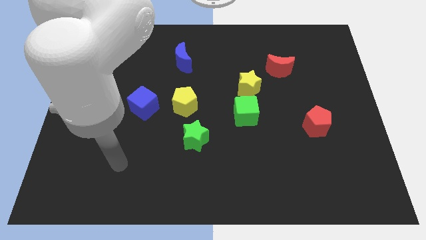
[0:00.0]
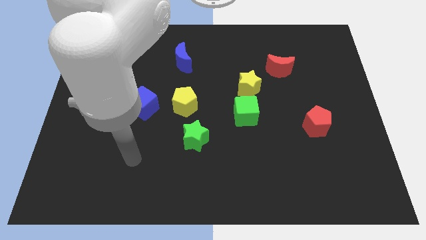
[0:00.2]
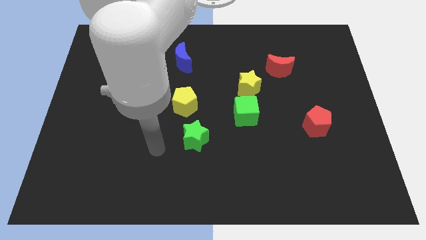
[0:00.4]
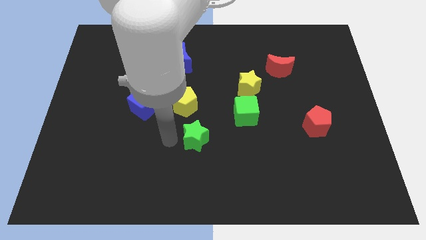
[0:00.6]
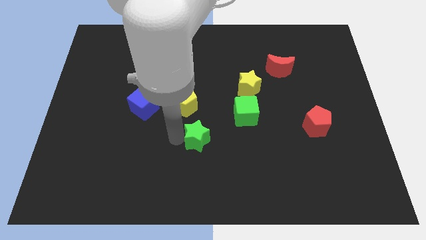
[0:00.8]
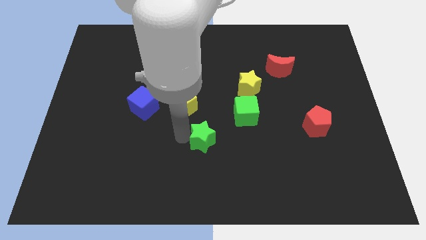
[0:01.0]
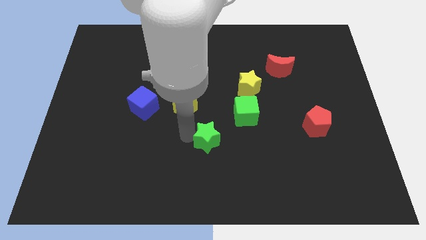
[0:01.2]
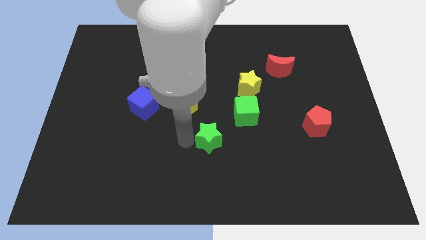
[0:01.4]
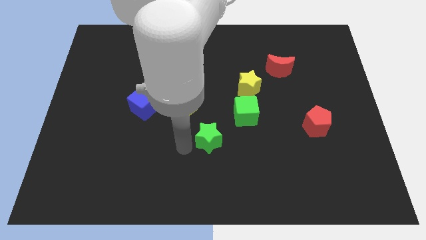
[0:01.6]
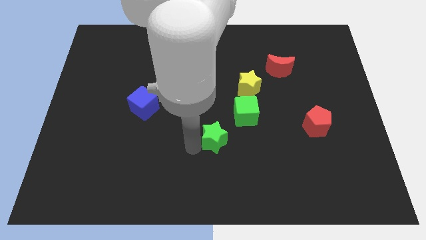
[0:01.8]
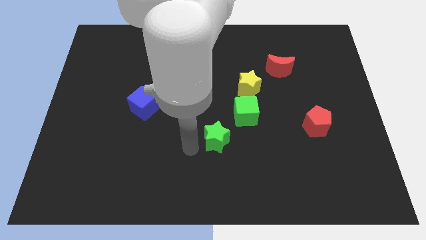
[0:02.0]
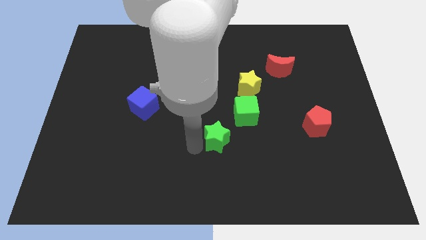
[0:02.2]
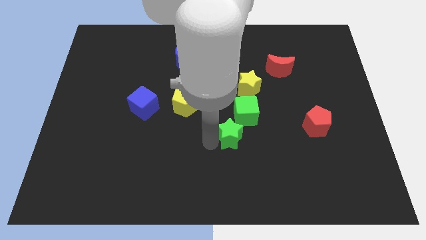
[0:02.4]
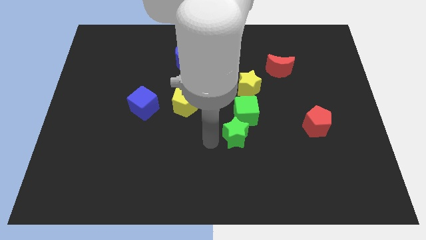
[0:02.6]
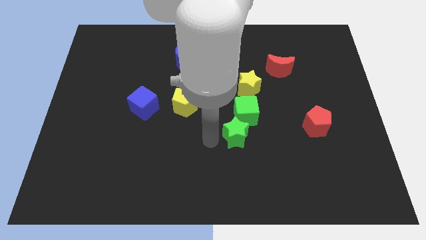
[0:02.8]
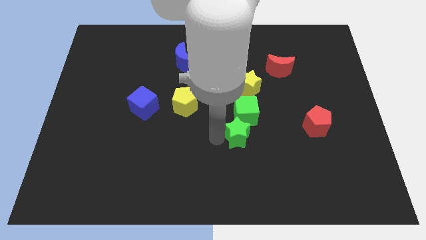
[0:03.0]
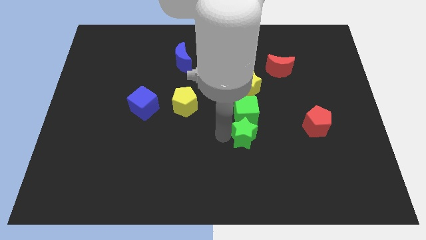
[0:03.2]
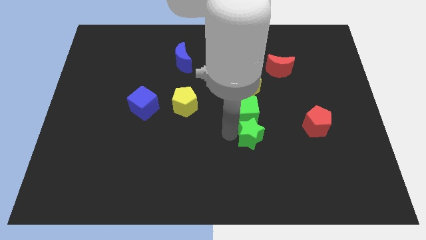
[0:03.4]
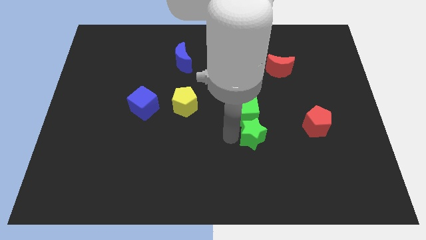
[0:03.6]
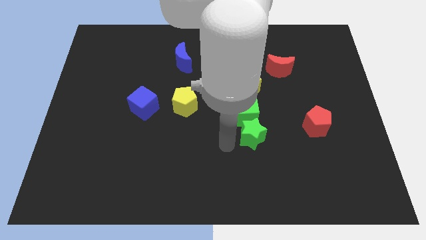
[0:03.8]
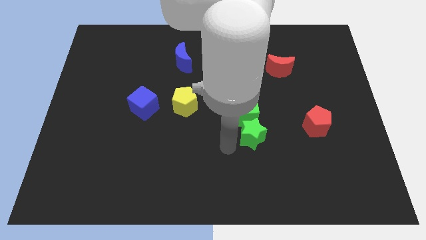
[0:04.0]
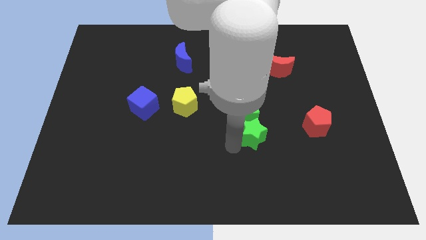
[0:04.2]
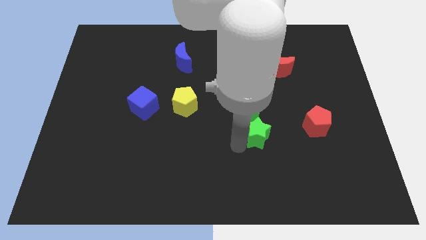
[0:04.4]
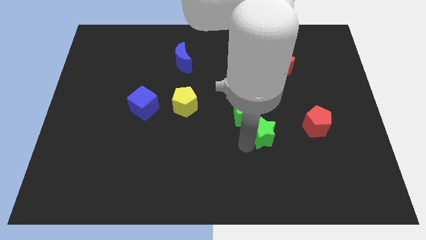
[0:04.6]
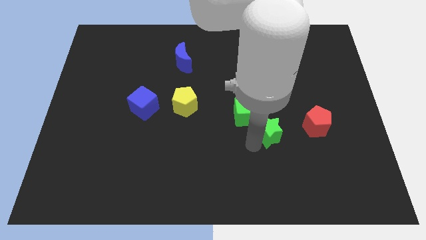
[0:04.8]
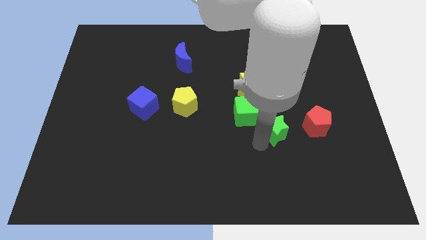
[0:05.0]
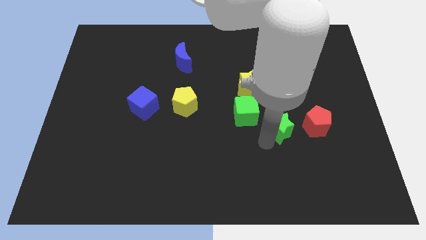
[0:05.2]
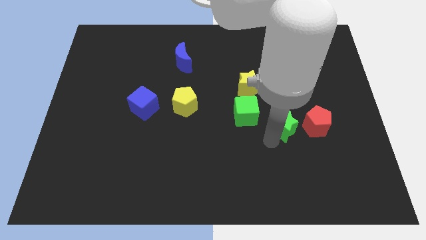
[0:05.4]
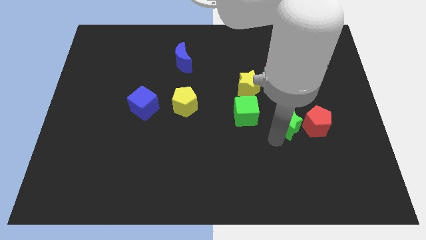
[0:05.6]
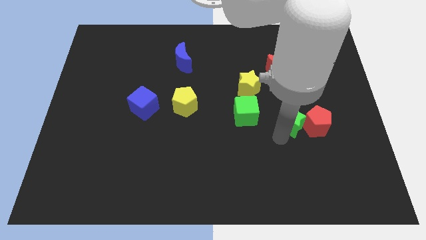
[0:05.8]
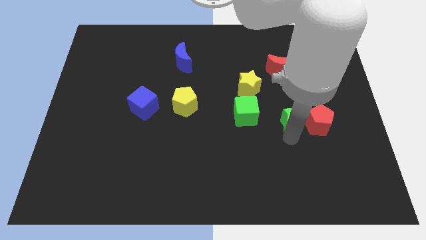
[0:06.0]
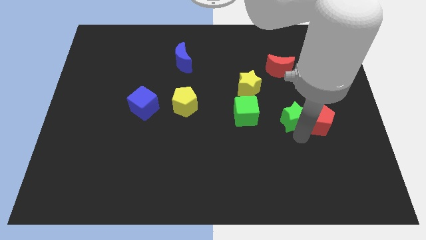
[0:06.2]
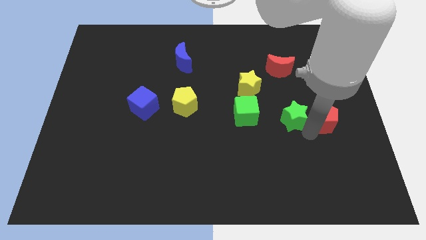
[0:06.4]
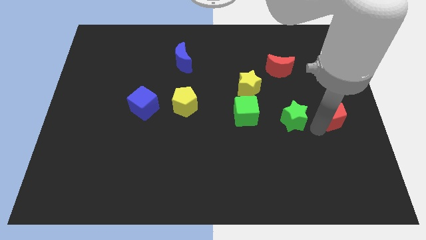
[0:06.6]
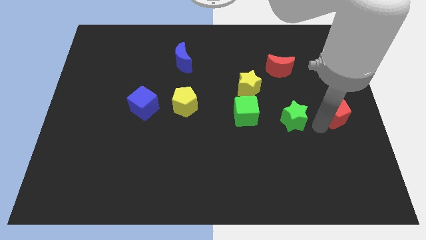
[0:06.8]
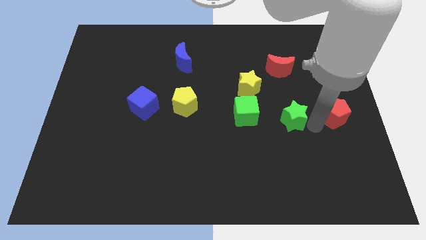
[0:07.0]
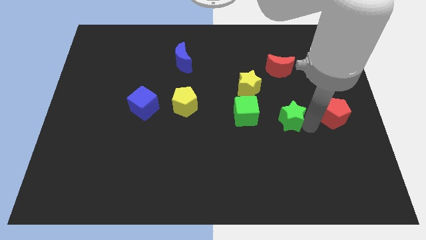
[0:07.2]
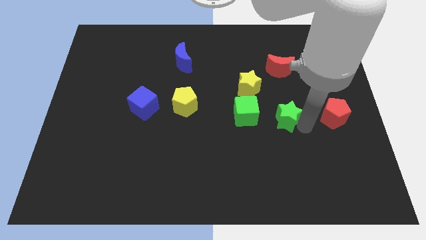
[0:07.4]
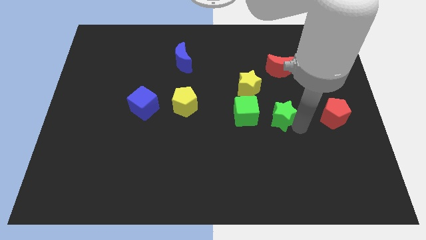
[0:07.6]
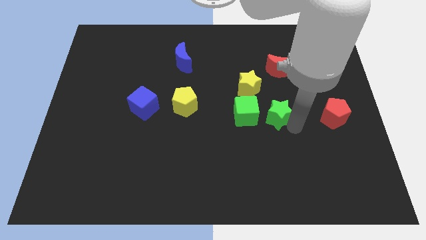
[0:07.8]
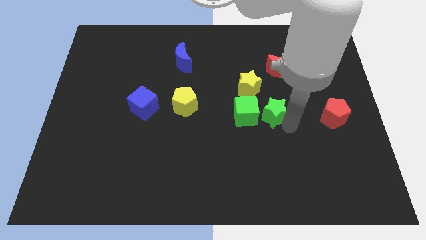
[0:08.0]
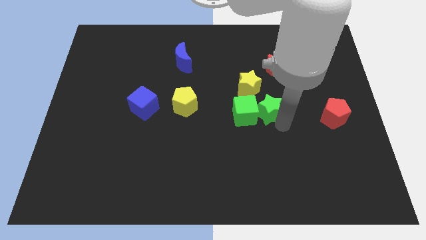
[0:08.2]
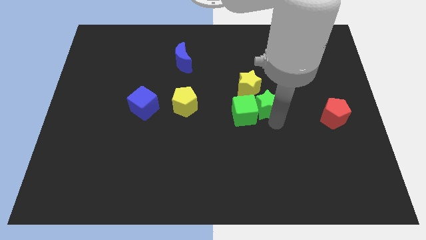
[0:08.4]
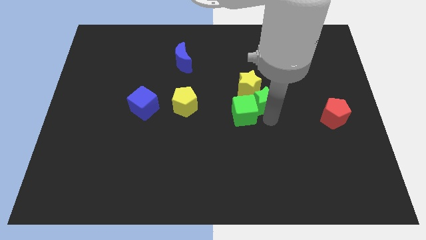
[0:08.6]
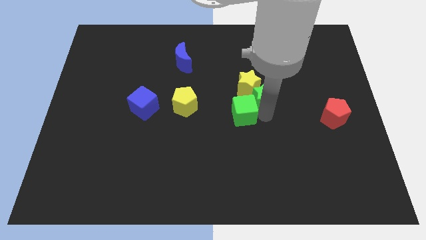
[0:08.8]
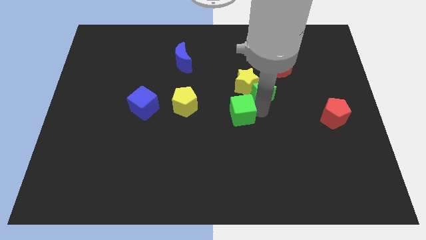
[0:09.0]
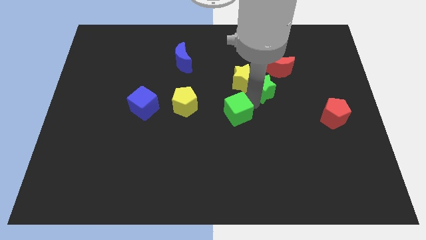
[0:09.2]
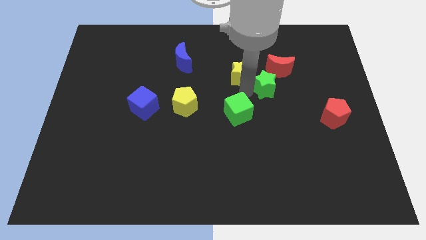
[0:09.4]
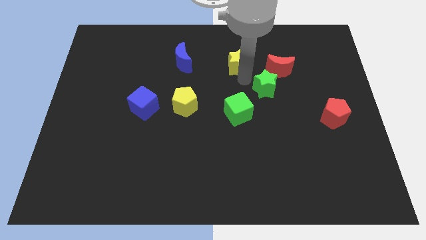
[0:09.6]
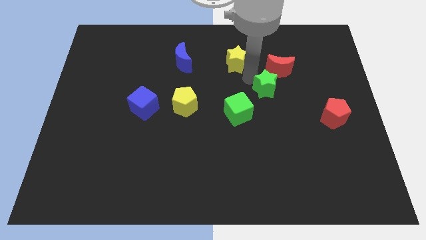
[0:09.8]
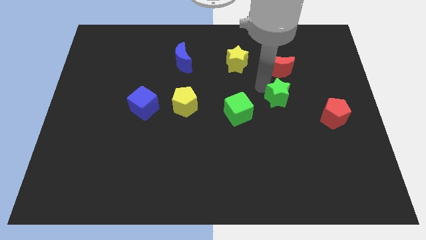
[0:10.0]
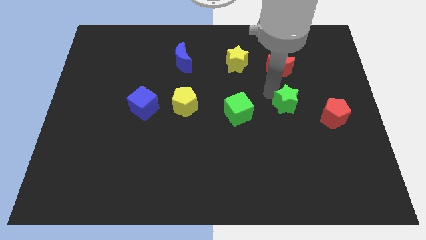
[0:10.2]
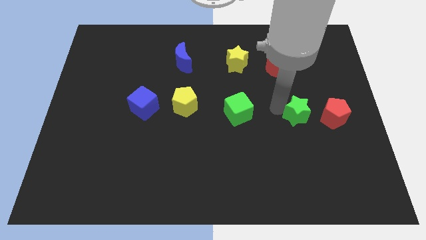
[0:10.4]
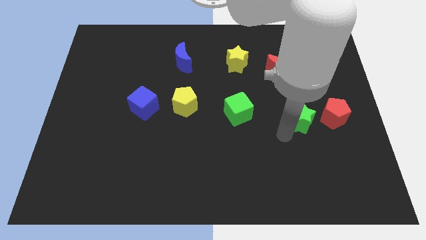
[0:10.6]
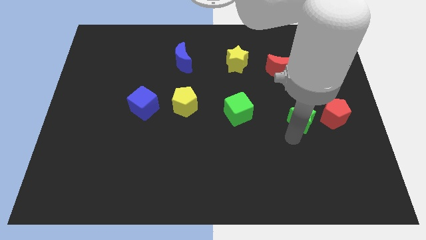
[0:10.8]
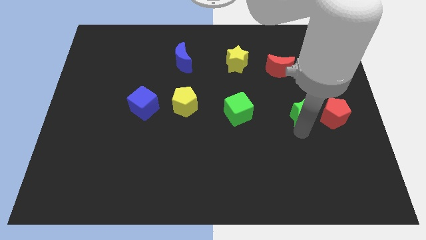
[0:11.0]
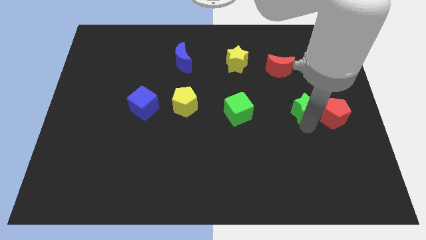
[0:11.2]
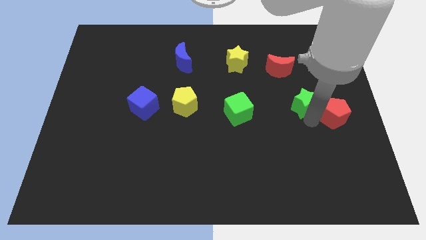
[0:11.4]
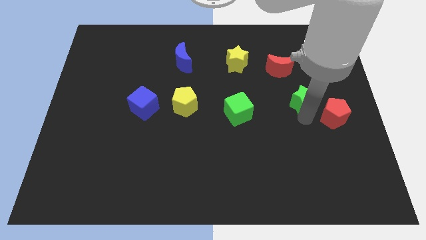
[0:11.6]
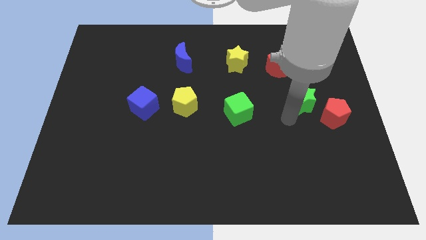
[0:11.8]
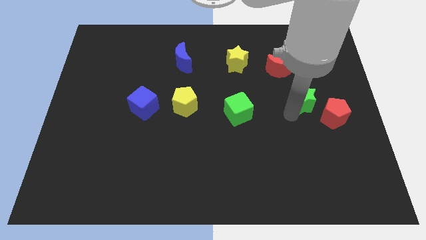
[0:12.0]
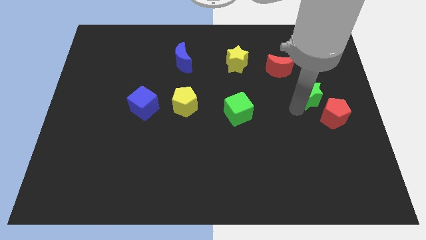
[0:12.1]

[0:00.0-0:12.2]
slide the green star to the top of the red pentagon
